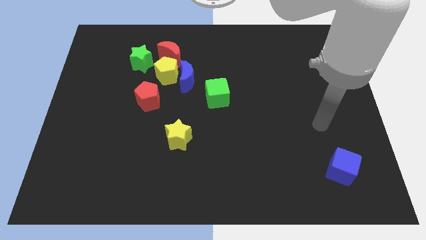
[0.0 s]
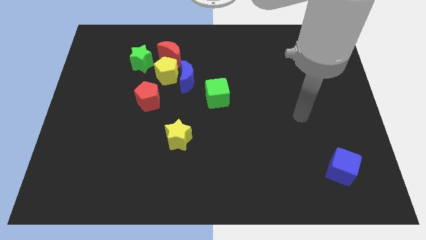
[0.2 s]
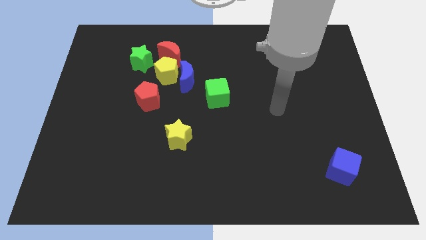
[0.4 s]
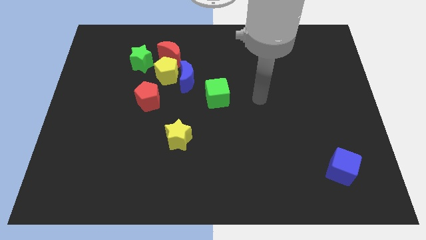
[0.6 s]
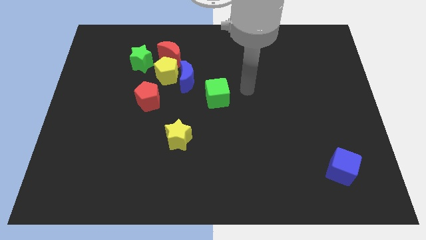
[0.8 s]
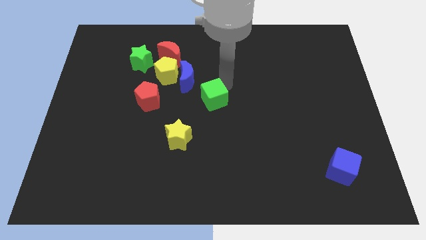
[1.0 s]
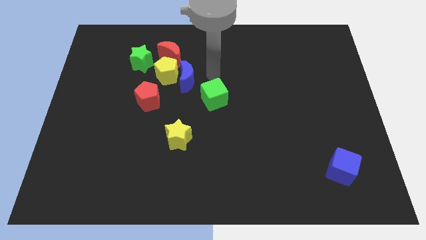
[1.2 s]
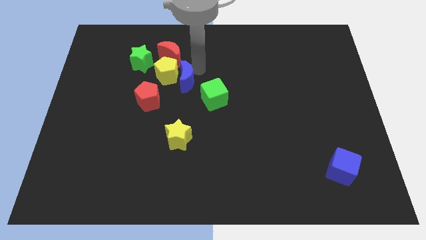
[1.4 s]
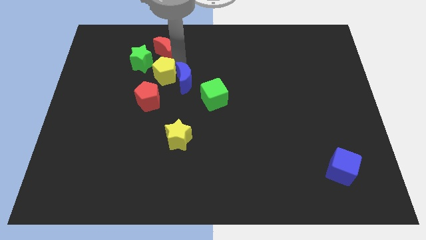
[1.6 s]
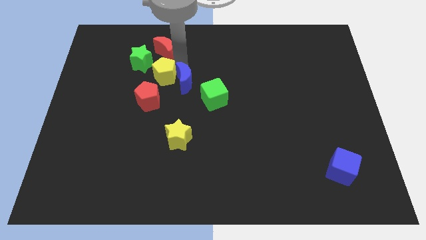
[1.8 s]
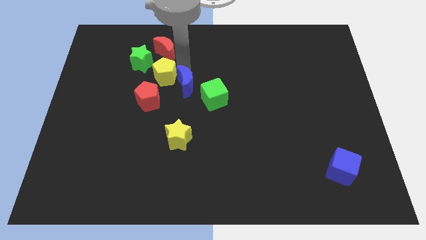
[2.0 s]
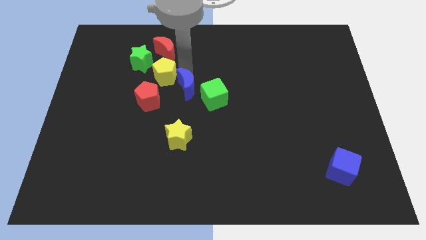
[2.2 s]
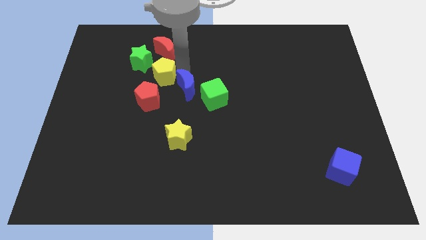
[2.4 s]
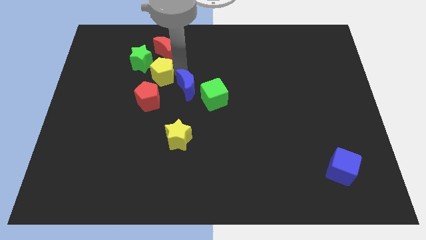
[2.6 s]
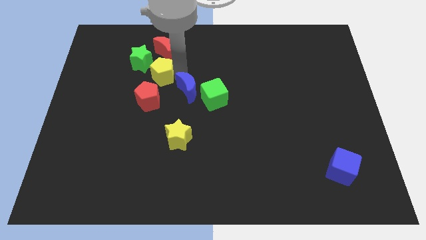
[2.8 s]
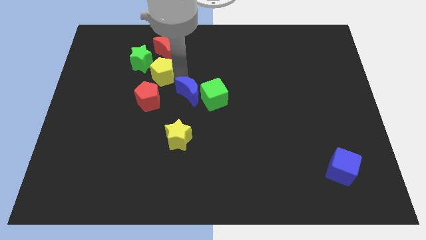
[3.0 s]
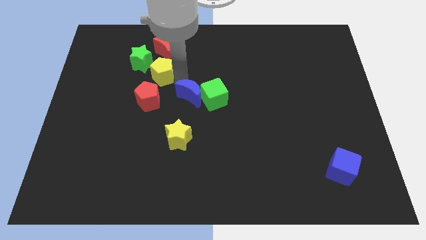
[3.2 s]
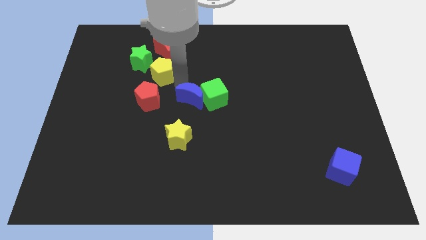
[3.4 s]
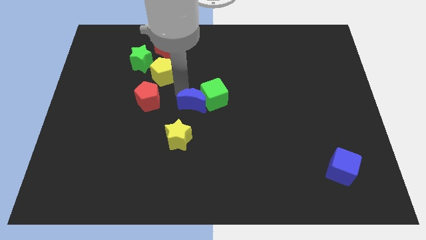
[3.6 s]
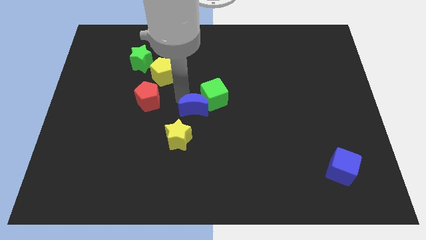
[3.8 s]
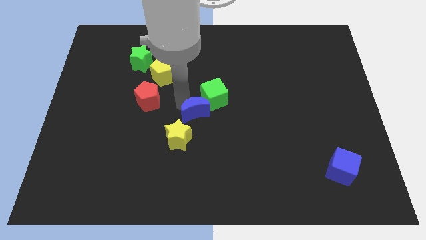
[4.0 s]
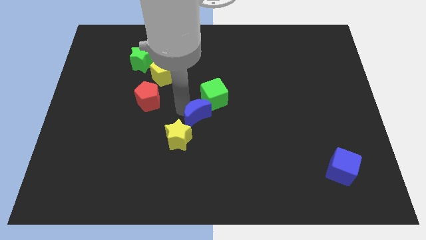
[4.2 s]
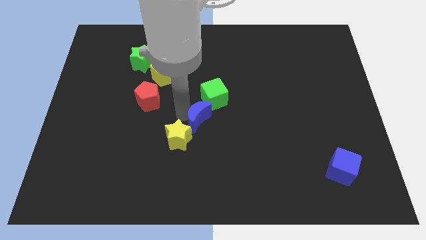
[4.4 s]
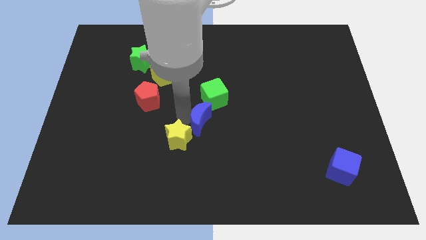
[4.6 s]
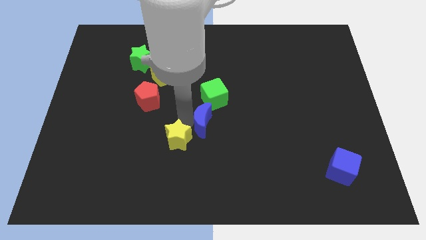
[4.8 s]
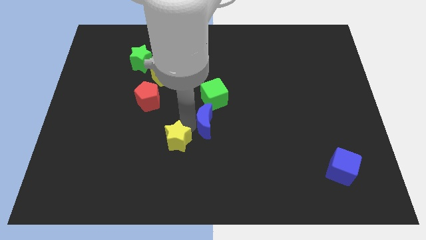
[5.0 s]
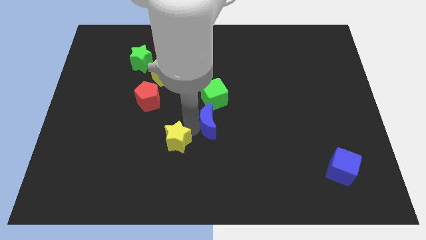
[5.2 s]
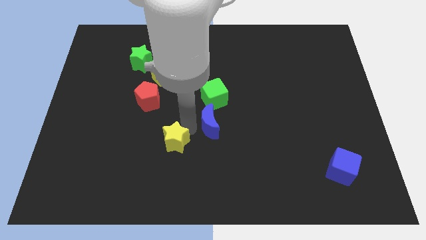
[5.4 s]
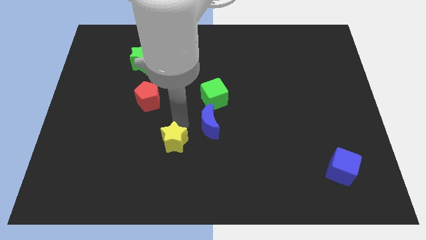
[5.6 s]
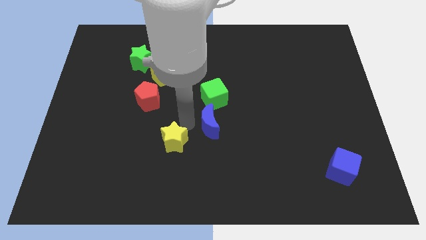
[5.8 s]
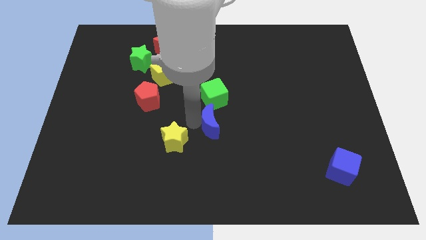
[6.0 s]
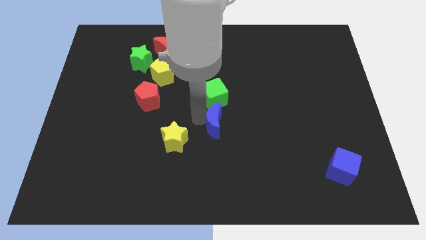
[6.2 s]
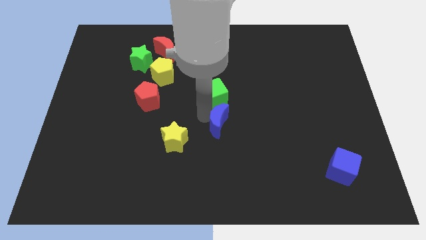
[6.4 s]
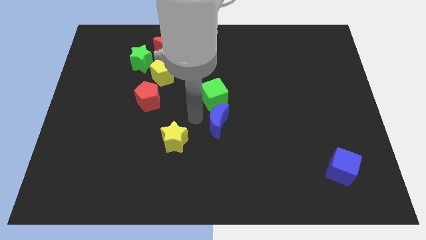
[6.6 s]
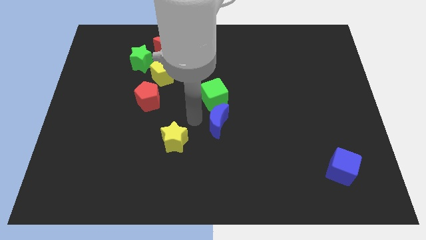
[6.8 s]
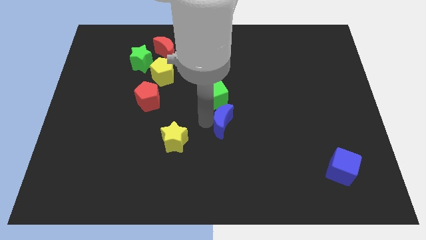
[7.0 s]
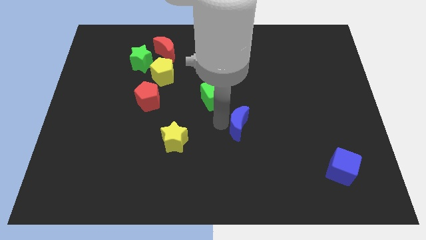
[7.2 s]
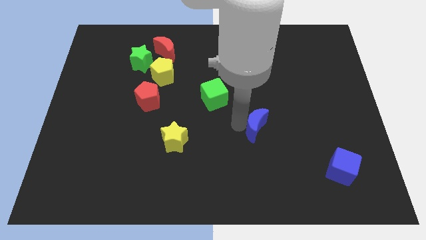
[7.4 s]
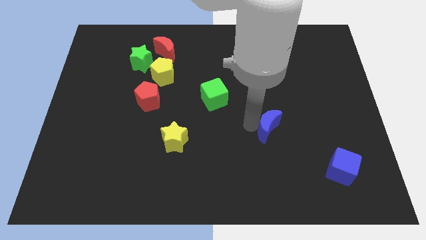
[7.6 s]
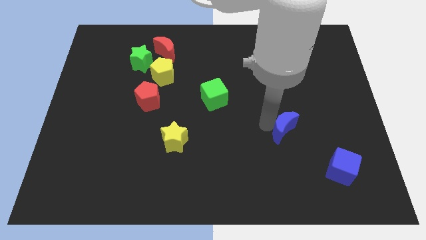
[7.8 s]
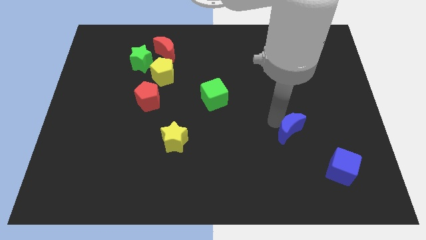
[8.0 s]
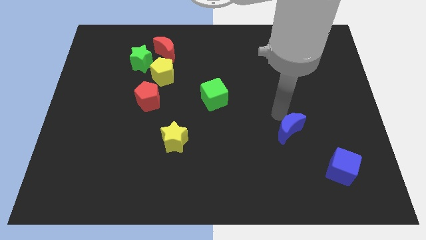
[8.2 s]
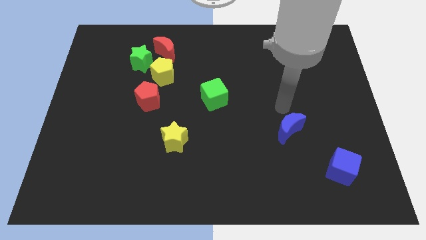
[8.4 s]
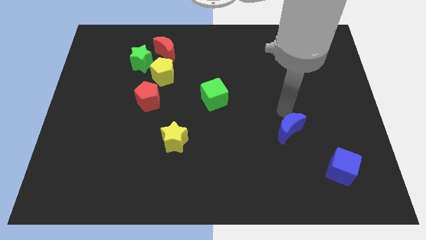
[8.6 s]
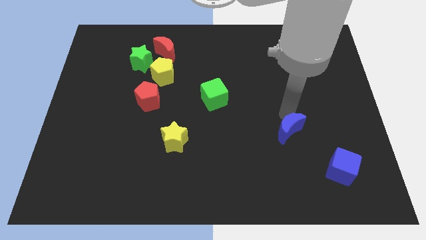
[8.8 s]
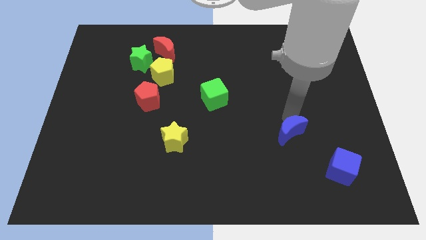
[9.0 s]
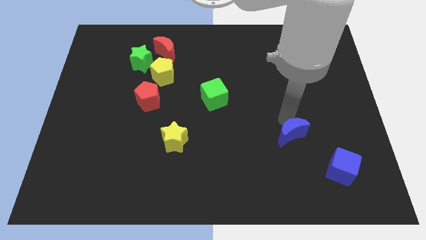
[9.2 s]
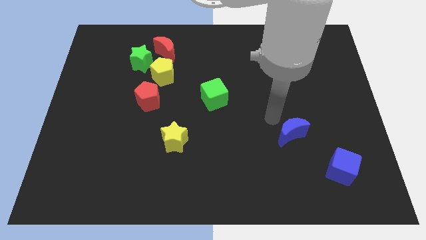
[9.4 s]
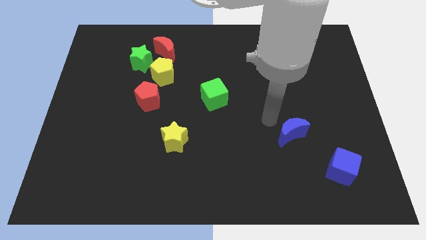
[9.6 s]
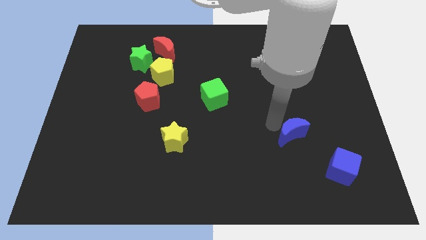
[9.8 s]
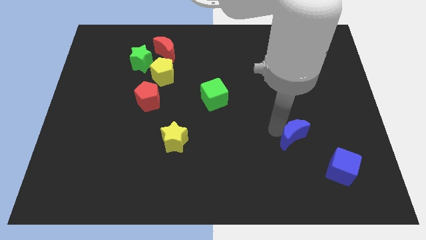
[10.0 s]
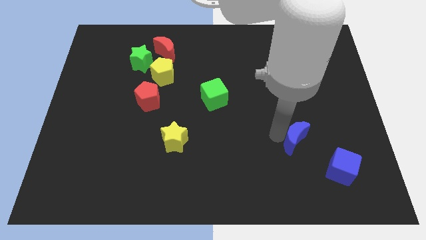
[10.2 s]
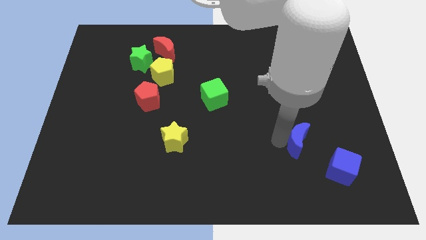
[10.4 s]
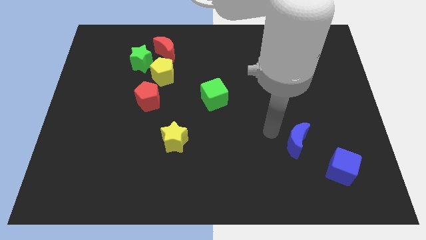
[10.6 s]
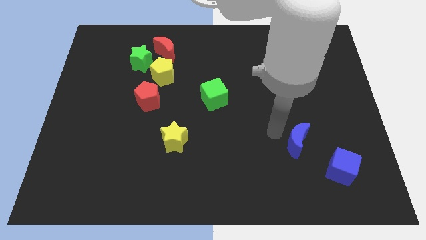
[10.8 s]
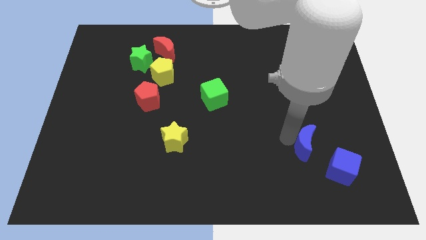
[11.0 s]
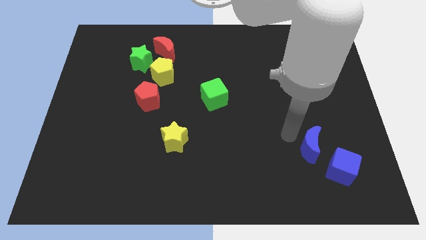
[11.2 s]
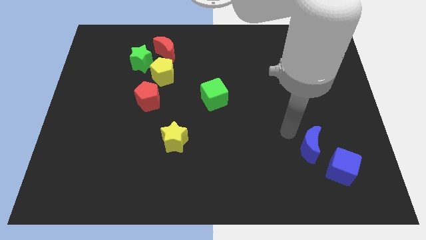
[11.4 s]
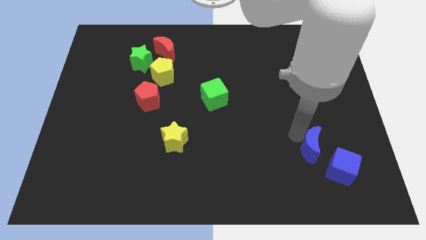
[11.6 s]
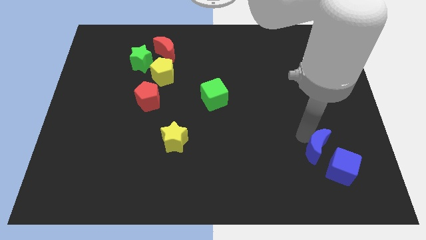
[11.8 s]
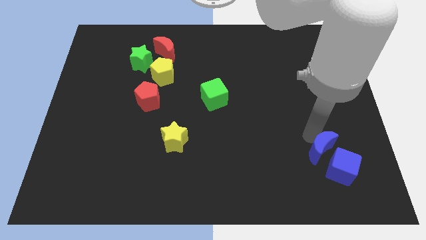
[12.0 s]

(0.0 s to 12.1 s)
put the blue moon to the blue cube

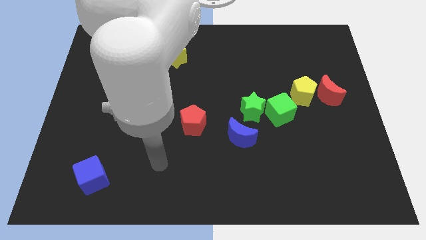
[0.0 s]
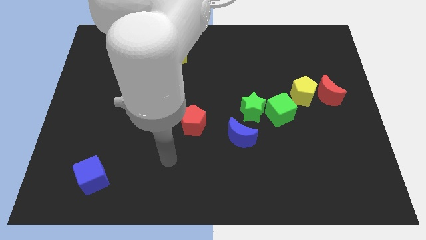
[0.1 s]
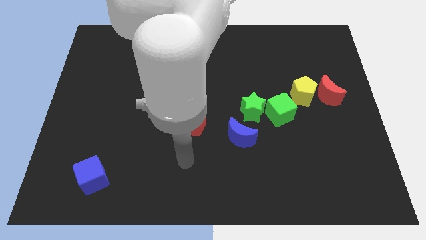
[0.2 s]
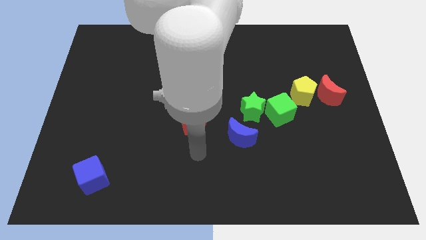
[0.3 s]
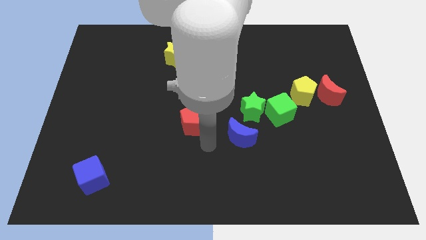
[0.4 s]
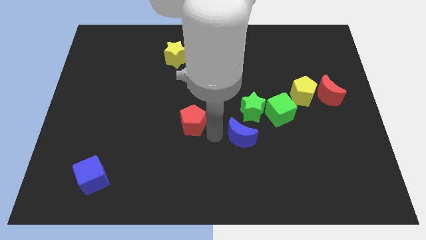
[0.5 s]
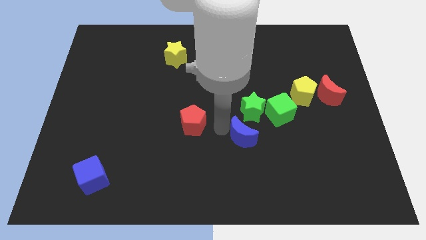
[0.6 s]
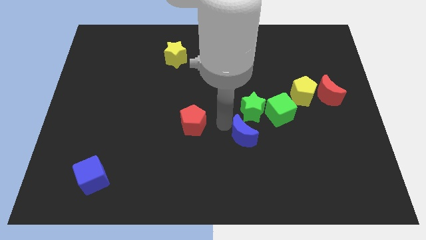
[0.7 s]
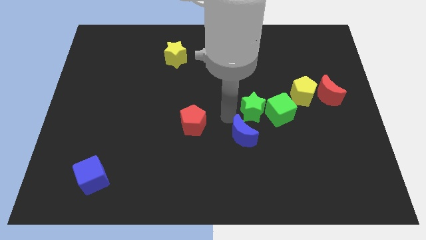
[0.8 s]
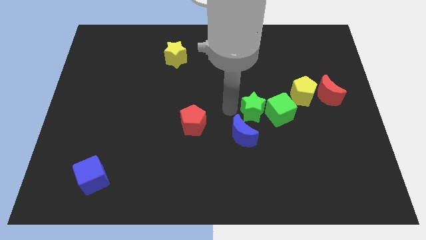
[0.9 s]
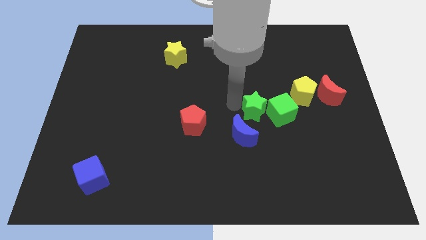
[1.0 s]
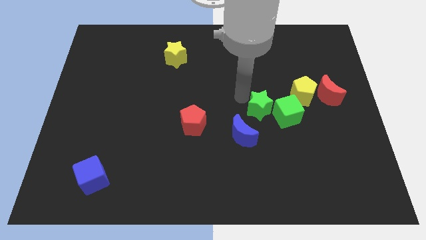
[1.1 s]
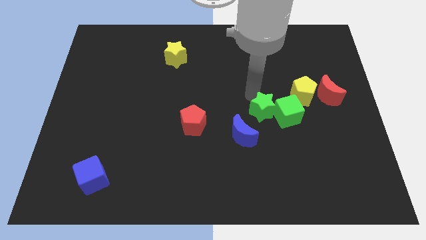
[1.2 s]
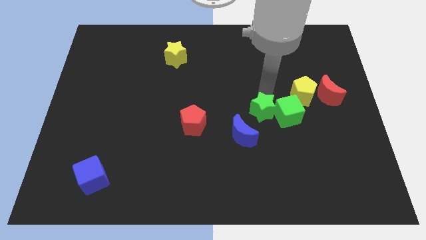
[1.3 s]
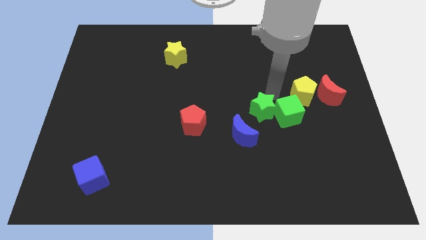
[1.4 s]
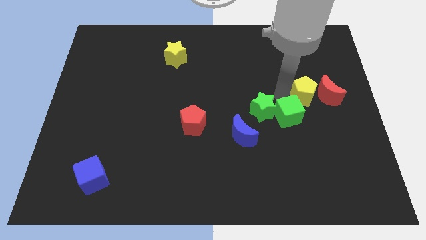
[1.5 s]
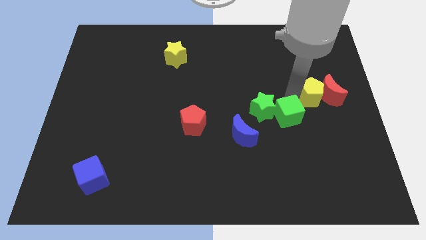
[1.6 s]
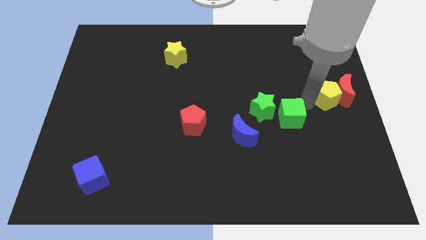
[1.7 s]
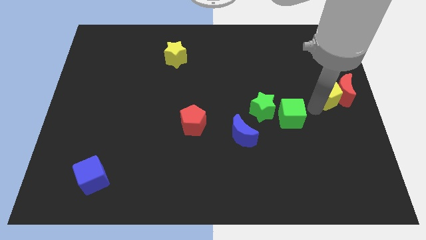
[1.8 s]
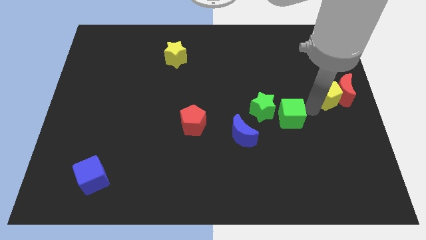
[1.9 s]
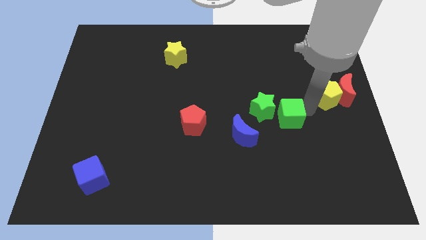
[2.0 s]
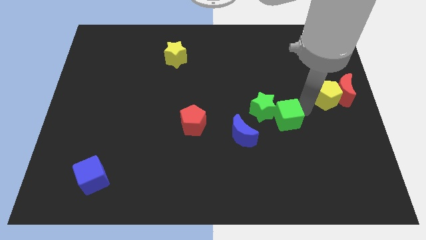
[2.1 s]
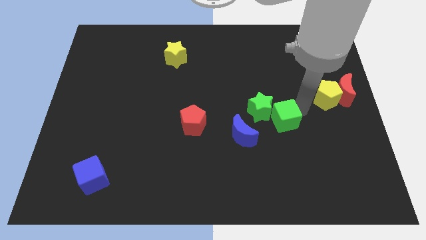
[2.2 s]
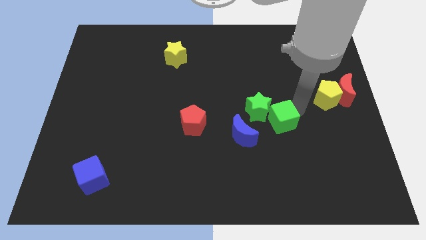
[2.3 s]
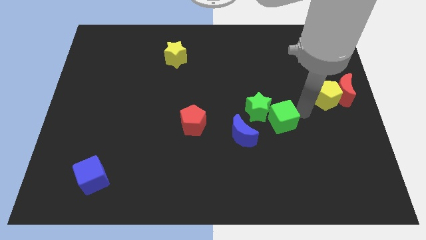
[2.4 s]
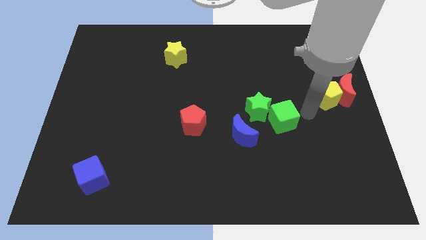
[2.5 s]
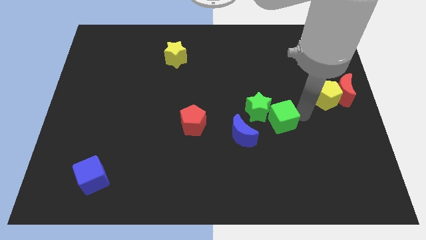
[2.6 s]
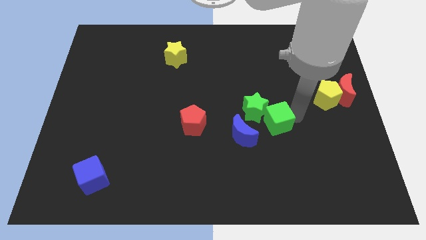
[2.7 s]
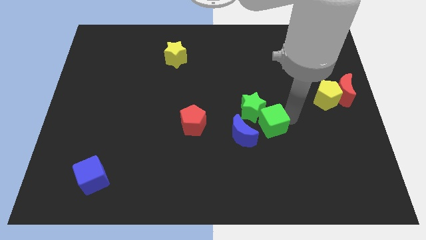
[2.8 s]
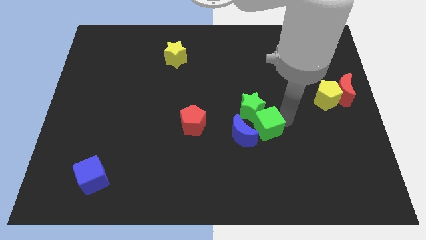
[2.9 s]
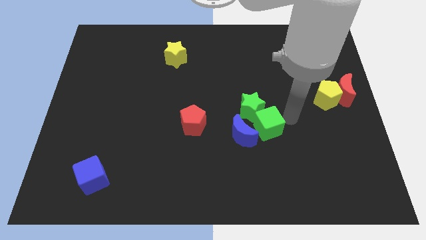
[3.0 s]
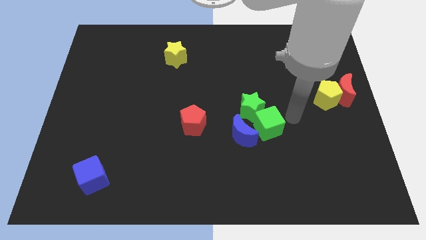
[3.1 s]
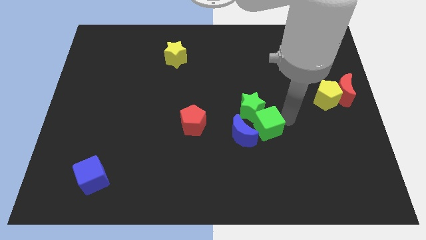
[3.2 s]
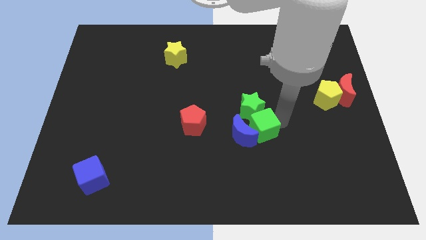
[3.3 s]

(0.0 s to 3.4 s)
slide the green cube close to the blue moon
